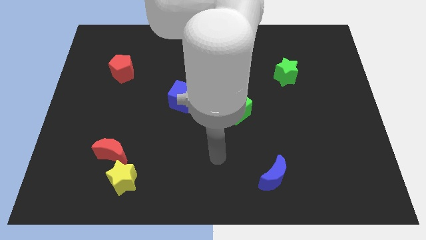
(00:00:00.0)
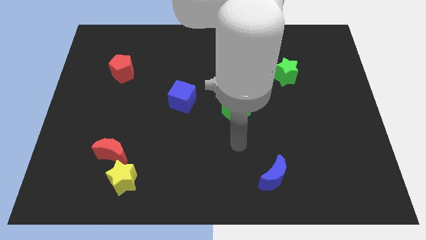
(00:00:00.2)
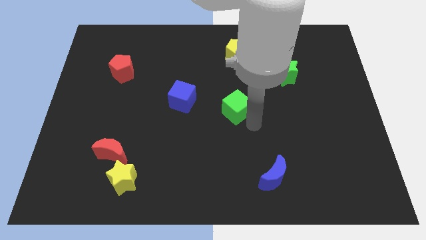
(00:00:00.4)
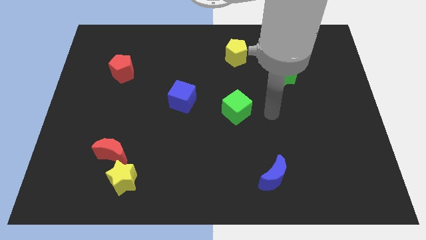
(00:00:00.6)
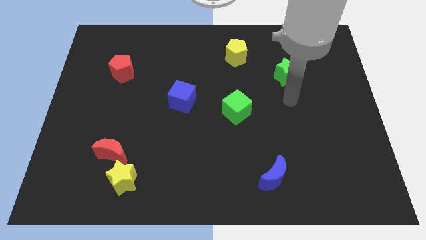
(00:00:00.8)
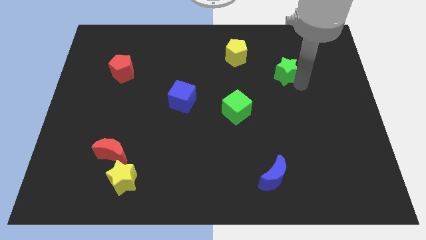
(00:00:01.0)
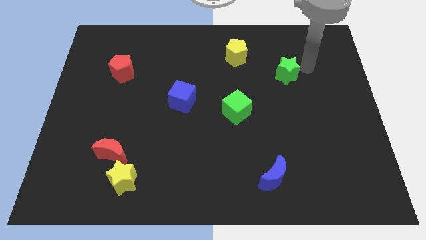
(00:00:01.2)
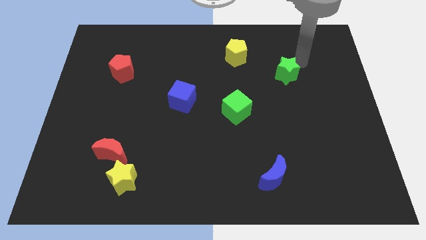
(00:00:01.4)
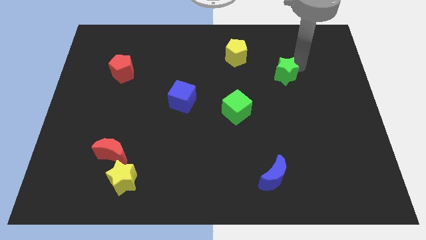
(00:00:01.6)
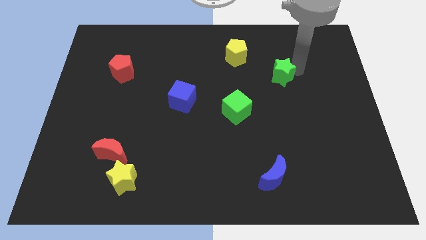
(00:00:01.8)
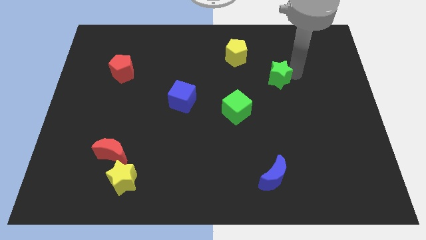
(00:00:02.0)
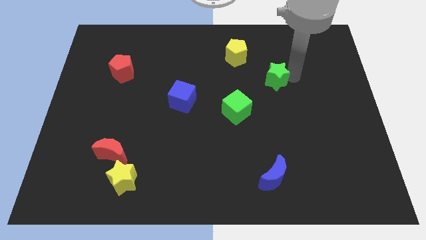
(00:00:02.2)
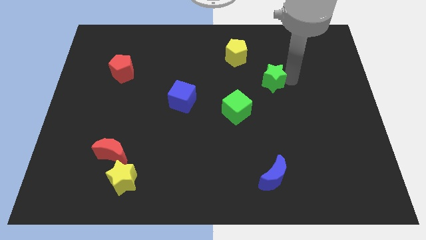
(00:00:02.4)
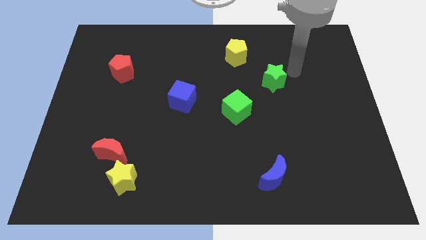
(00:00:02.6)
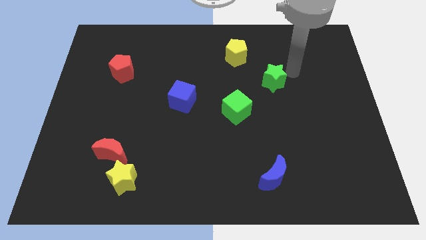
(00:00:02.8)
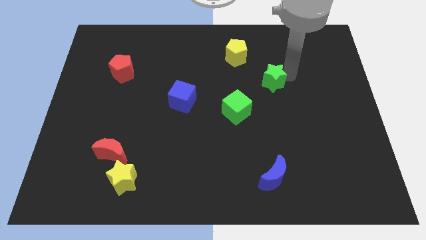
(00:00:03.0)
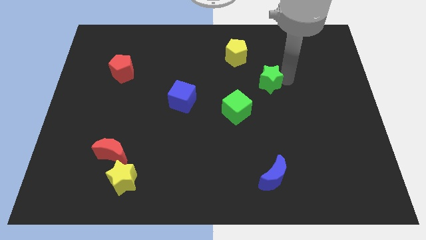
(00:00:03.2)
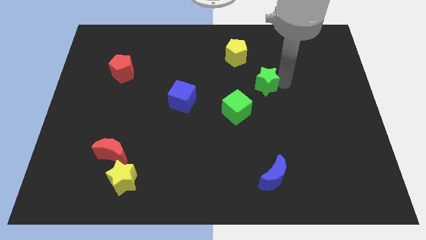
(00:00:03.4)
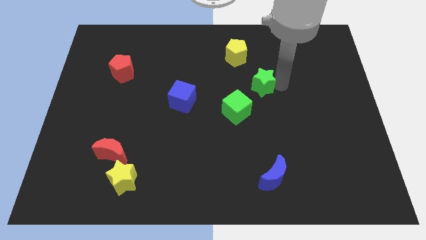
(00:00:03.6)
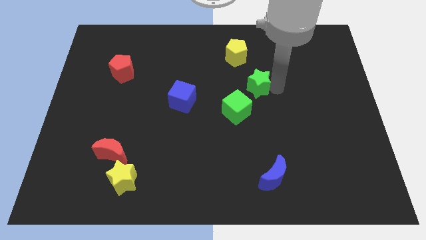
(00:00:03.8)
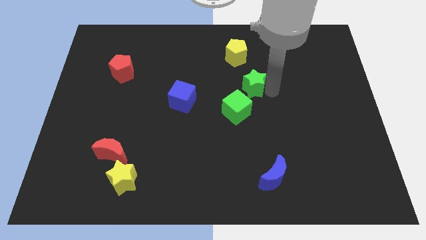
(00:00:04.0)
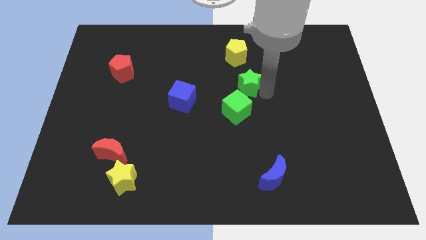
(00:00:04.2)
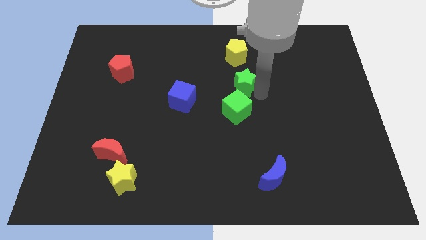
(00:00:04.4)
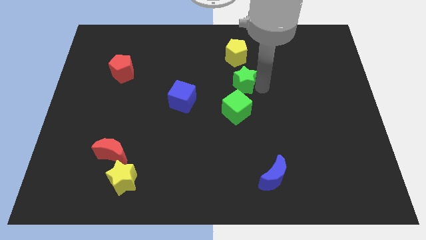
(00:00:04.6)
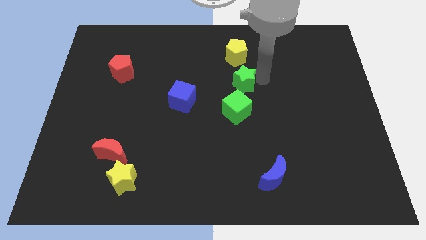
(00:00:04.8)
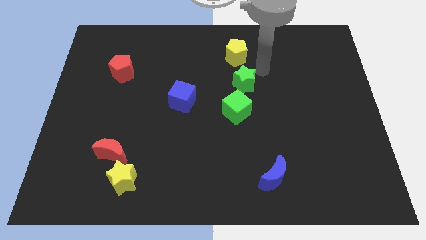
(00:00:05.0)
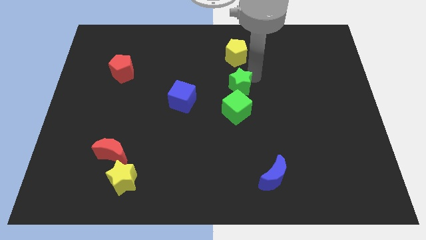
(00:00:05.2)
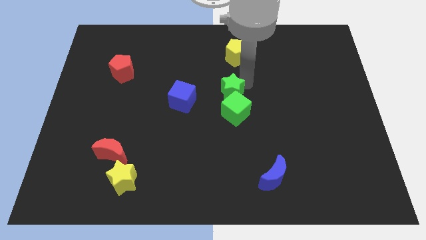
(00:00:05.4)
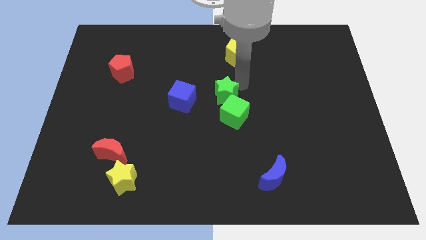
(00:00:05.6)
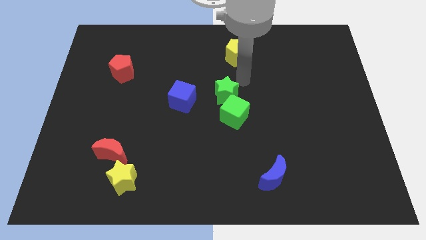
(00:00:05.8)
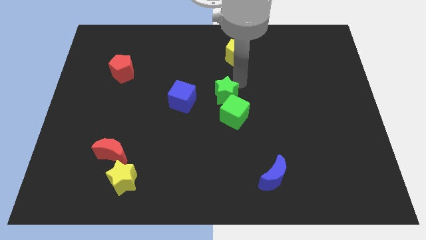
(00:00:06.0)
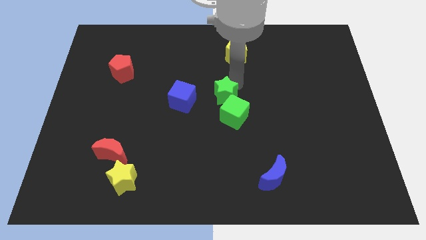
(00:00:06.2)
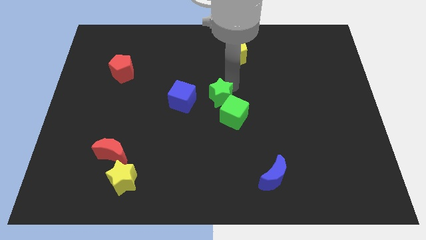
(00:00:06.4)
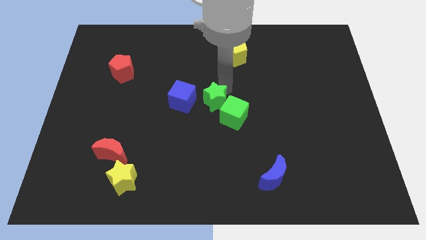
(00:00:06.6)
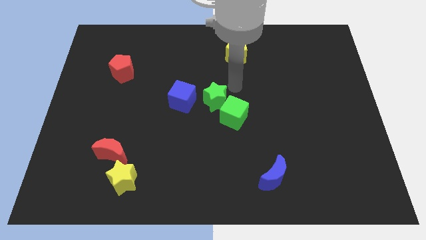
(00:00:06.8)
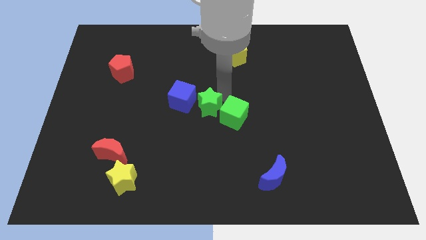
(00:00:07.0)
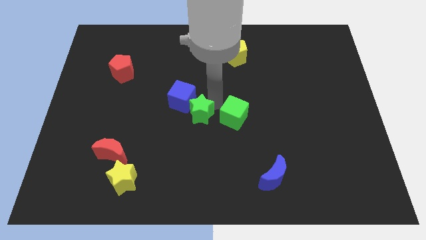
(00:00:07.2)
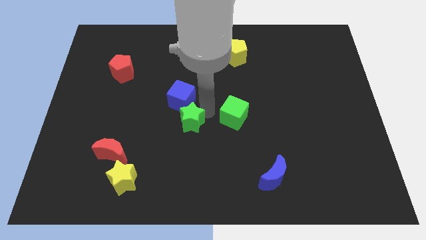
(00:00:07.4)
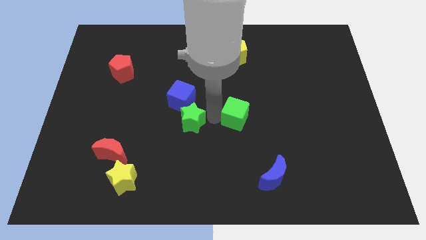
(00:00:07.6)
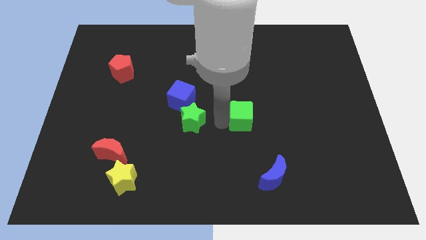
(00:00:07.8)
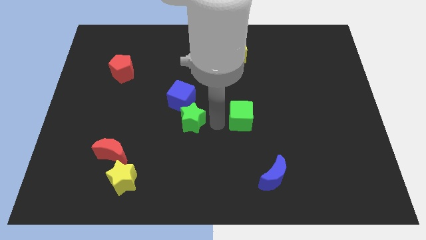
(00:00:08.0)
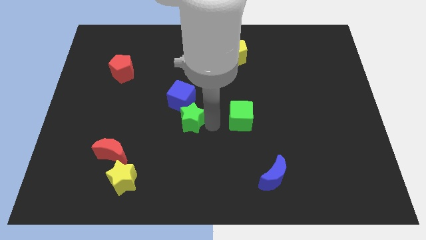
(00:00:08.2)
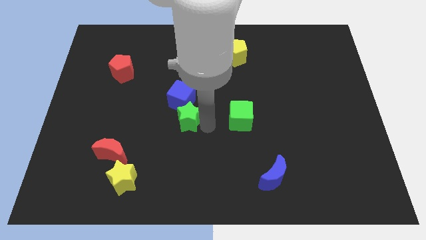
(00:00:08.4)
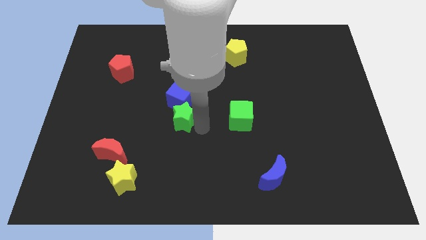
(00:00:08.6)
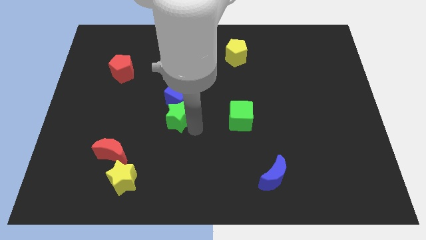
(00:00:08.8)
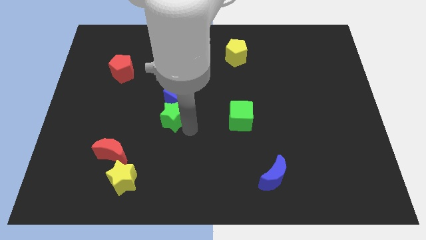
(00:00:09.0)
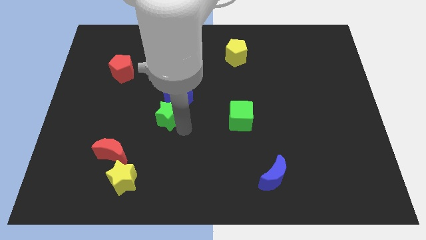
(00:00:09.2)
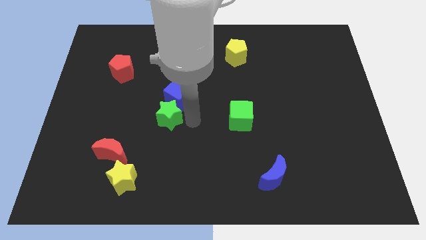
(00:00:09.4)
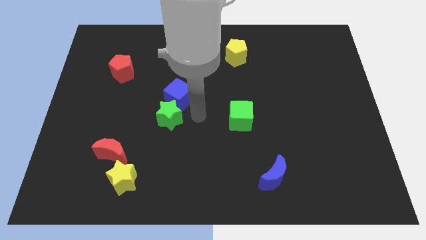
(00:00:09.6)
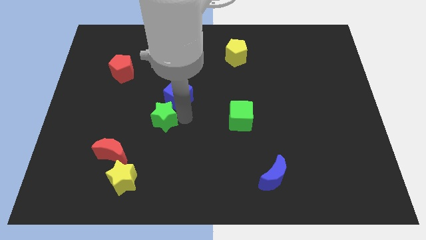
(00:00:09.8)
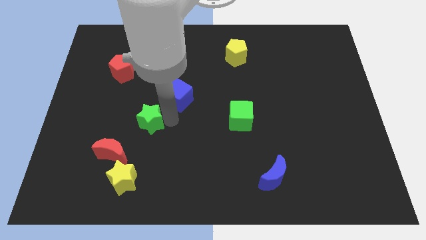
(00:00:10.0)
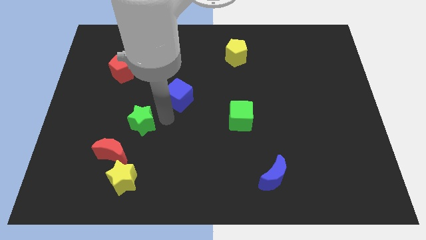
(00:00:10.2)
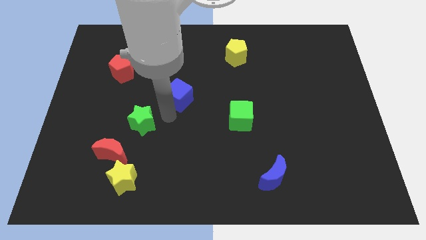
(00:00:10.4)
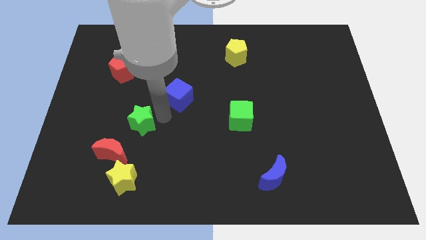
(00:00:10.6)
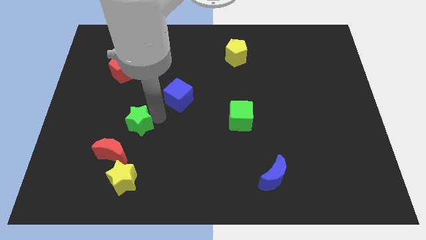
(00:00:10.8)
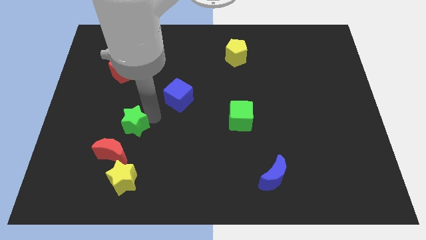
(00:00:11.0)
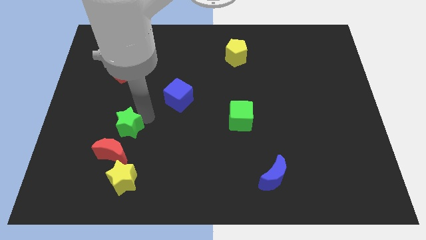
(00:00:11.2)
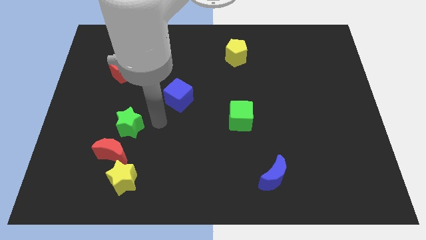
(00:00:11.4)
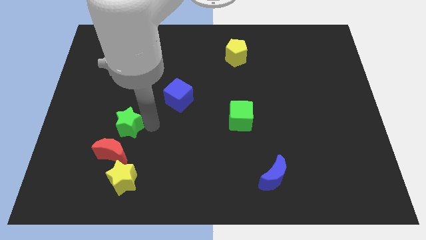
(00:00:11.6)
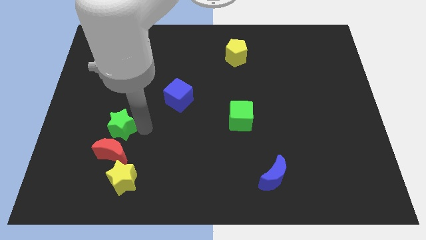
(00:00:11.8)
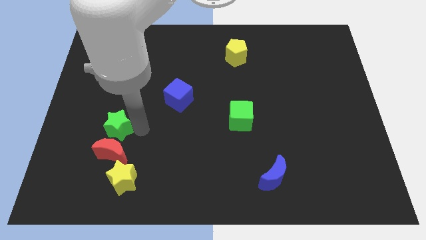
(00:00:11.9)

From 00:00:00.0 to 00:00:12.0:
put the green star to the top left of the red moon

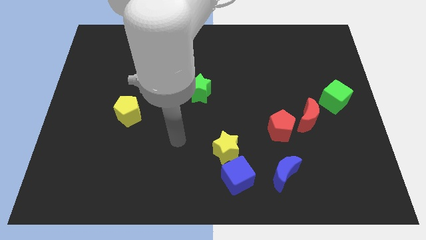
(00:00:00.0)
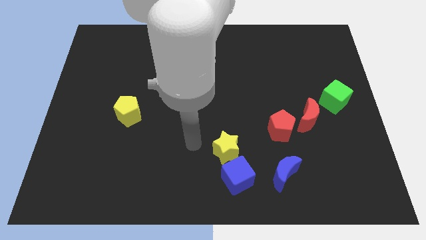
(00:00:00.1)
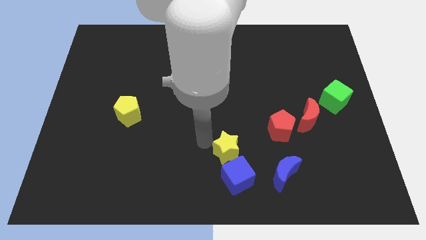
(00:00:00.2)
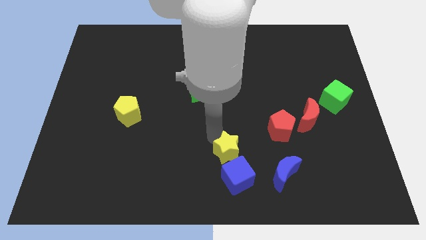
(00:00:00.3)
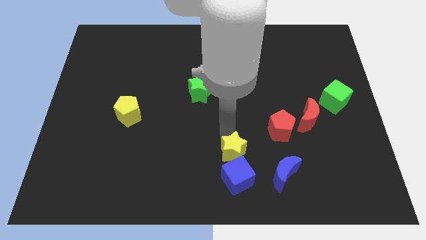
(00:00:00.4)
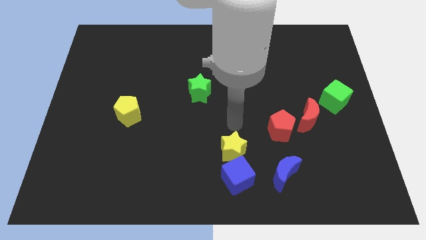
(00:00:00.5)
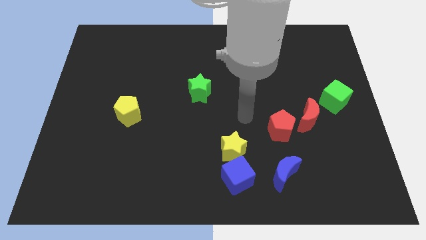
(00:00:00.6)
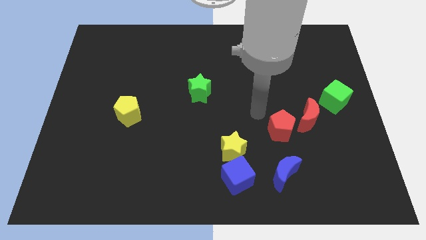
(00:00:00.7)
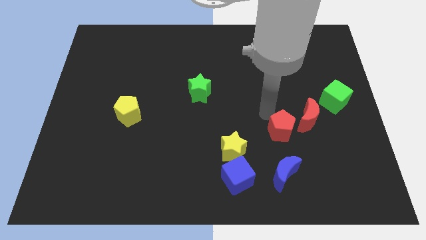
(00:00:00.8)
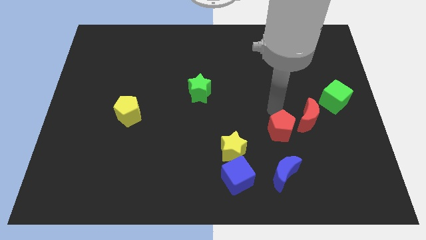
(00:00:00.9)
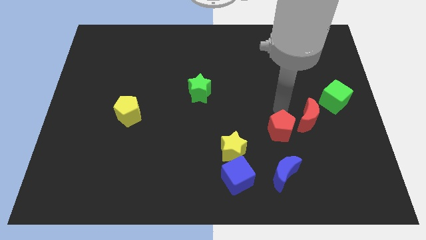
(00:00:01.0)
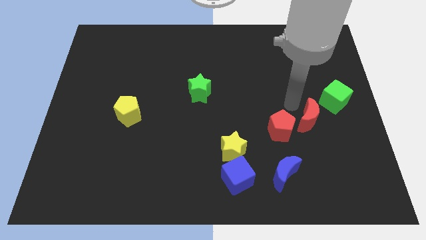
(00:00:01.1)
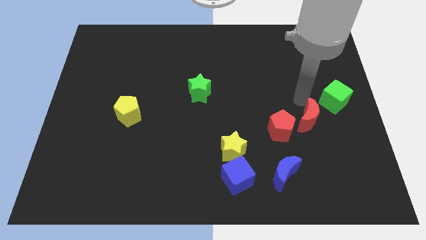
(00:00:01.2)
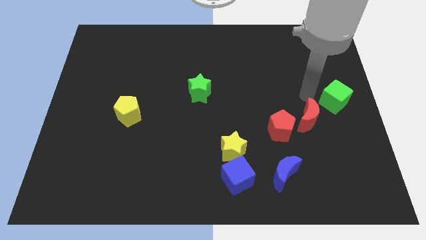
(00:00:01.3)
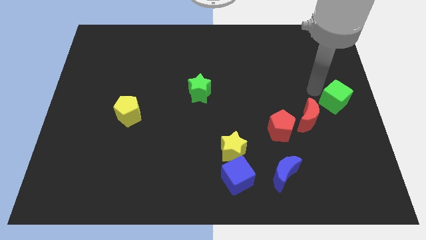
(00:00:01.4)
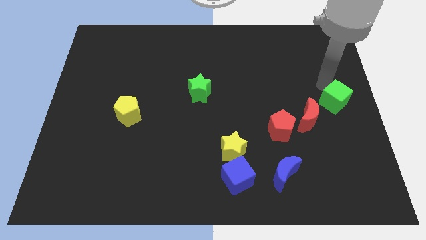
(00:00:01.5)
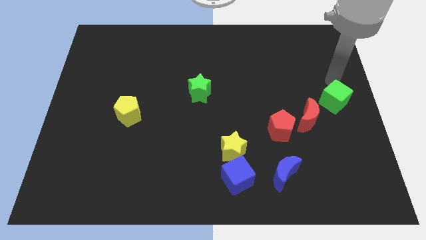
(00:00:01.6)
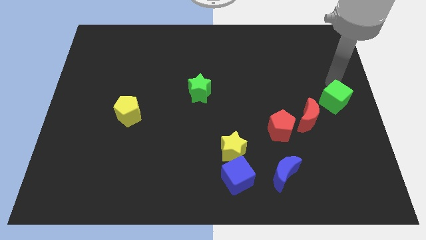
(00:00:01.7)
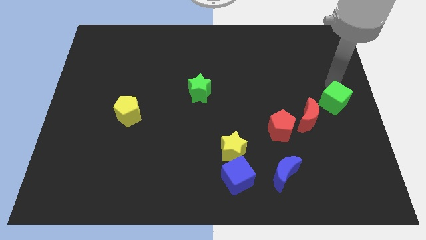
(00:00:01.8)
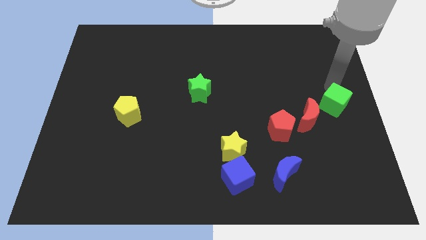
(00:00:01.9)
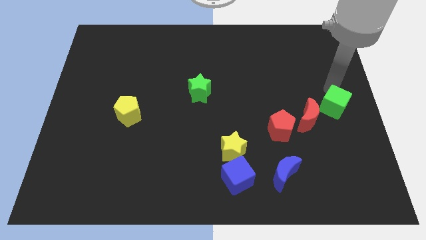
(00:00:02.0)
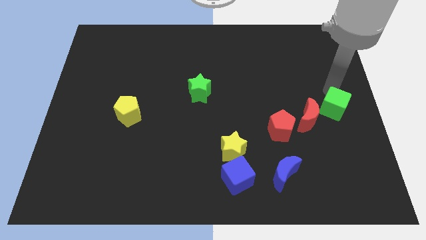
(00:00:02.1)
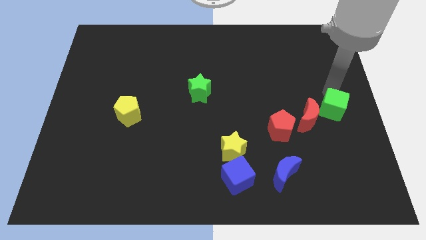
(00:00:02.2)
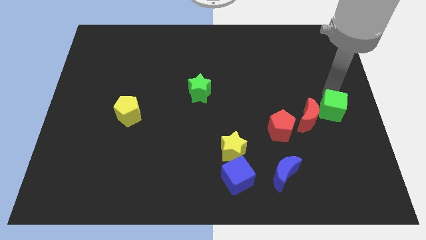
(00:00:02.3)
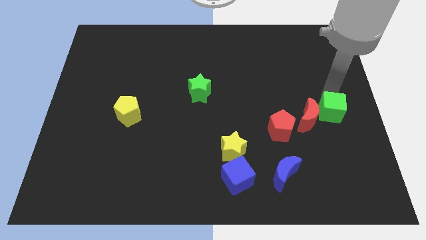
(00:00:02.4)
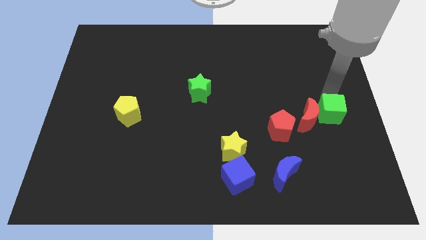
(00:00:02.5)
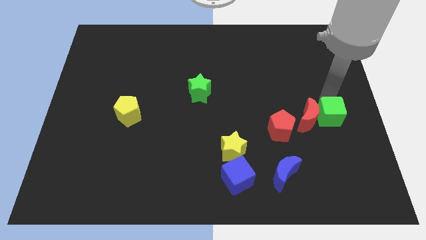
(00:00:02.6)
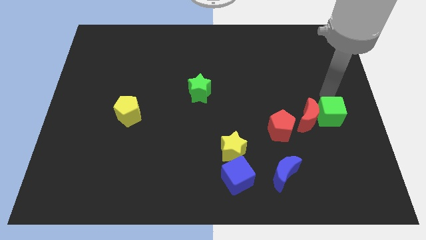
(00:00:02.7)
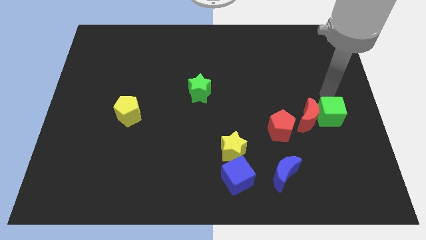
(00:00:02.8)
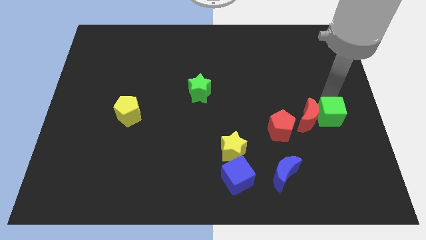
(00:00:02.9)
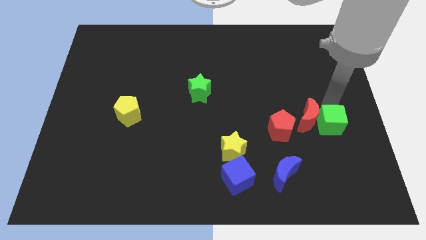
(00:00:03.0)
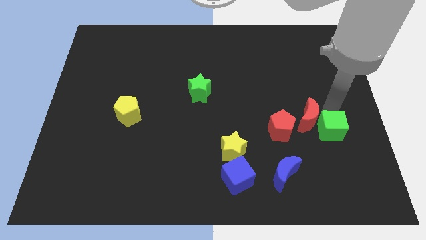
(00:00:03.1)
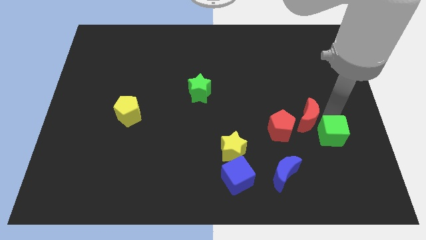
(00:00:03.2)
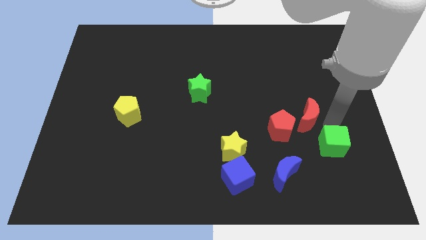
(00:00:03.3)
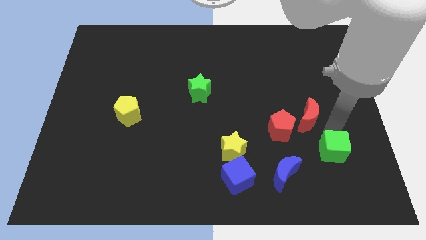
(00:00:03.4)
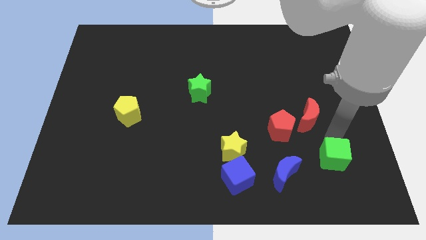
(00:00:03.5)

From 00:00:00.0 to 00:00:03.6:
move the green cube right of the blue moon
